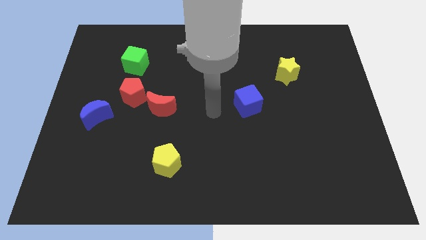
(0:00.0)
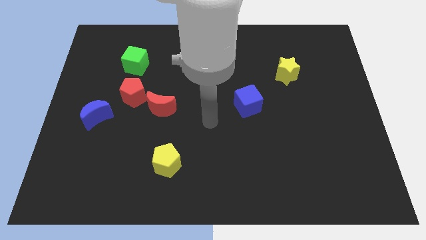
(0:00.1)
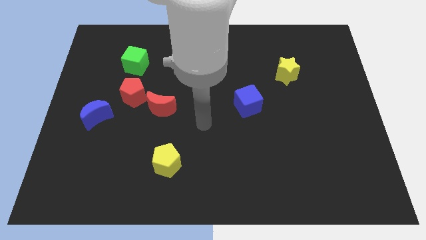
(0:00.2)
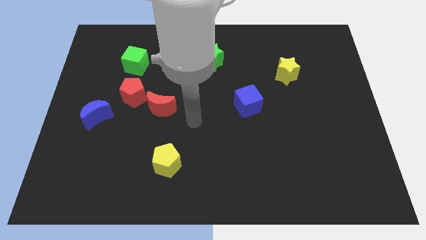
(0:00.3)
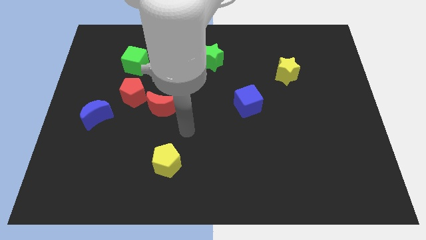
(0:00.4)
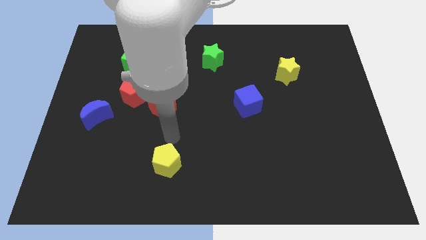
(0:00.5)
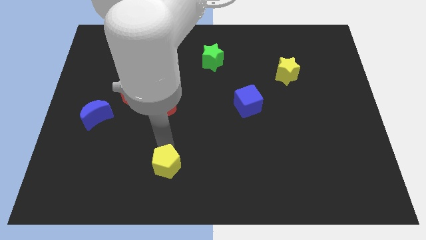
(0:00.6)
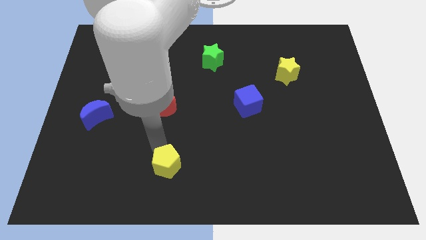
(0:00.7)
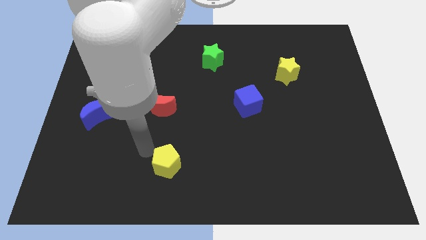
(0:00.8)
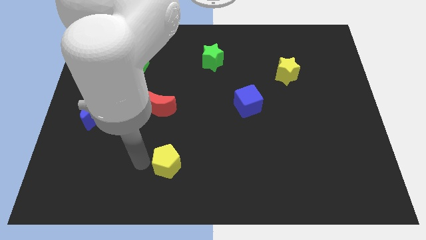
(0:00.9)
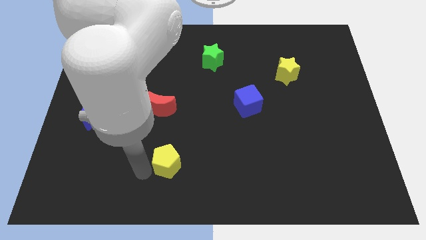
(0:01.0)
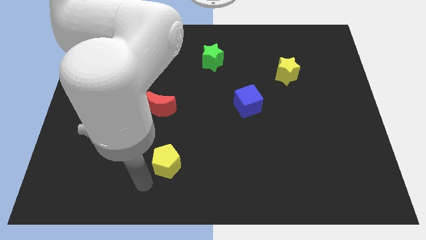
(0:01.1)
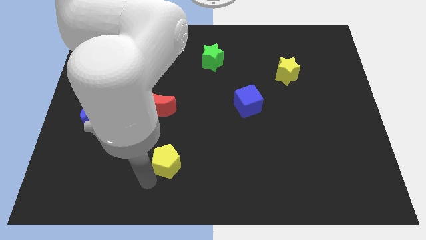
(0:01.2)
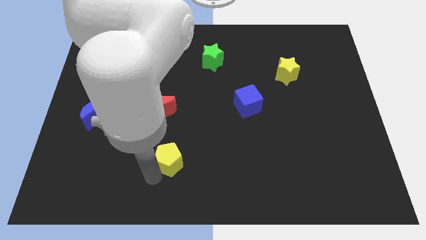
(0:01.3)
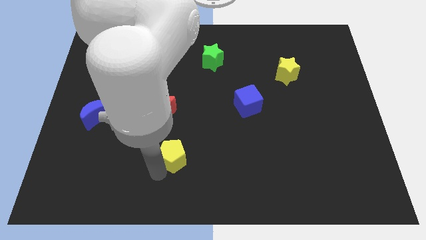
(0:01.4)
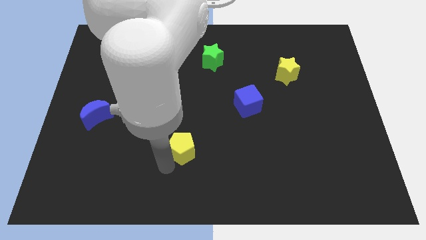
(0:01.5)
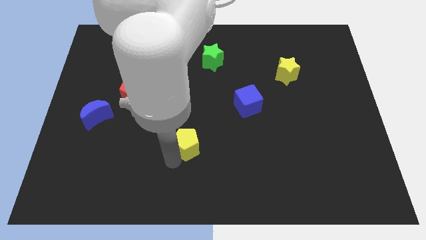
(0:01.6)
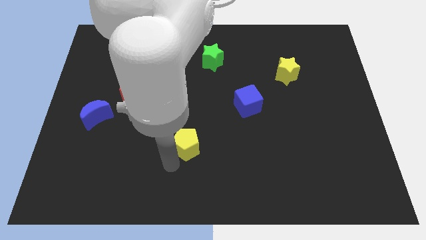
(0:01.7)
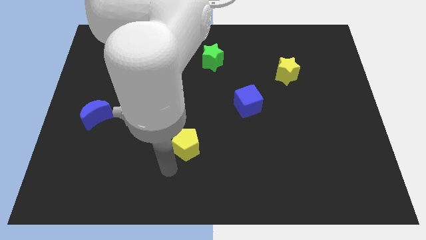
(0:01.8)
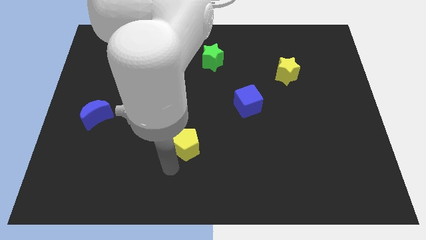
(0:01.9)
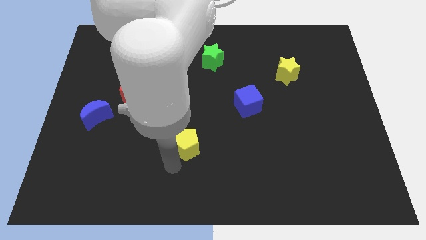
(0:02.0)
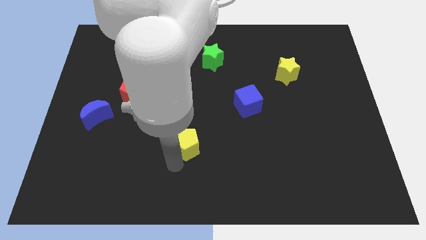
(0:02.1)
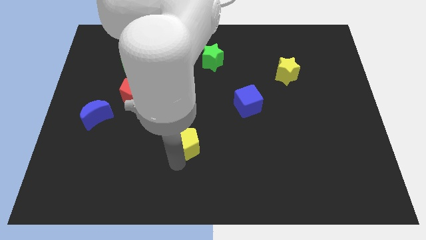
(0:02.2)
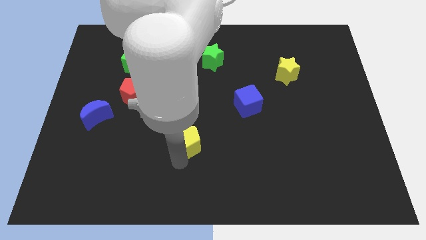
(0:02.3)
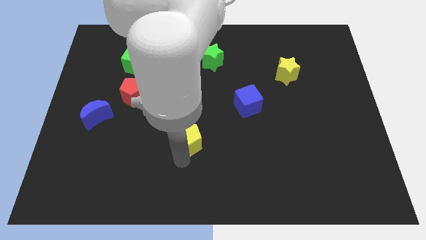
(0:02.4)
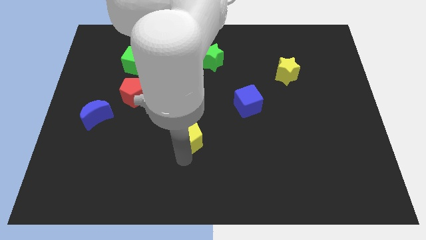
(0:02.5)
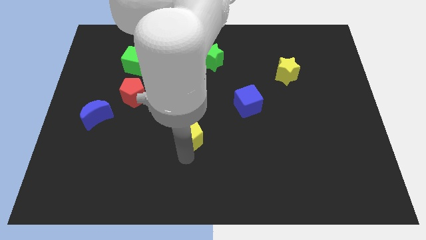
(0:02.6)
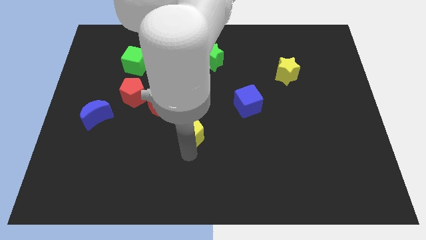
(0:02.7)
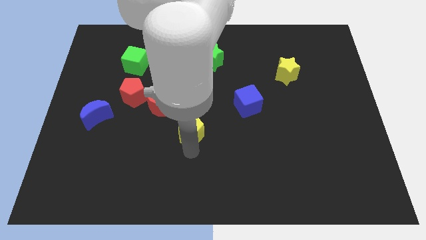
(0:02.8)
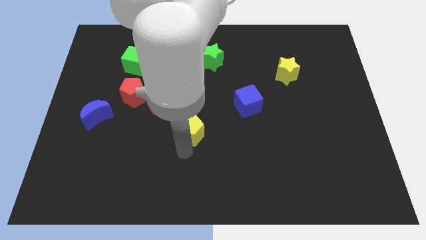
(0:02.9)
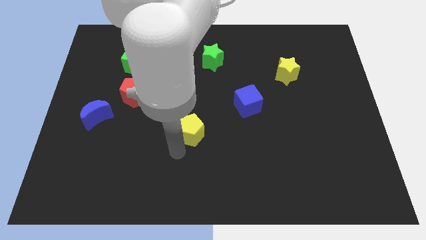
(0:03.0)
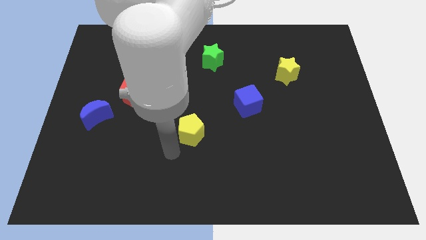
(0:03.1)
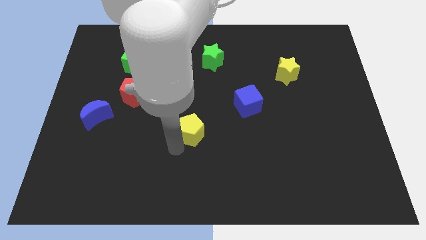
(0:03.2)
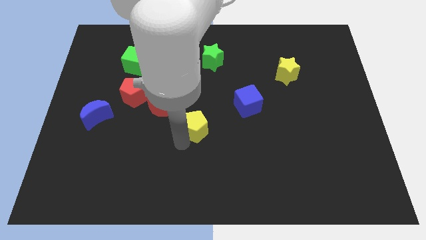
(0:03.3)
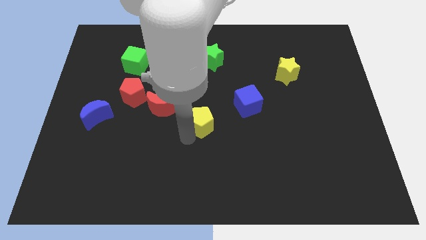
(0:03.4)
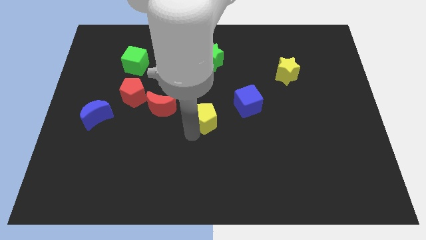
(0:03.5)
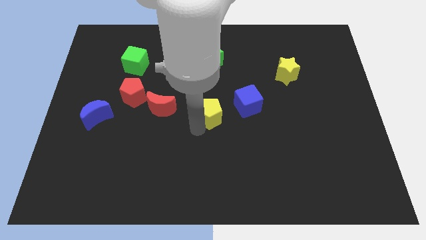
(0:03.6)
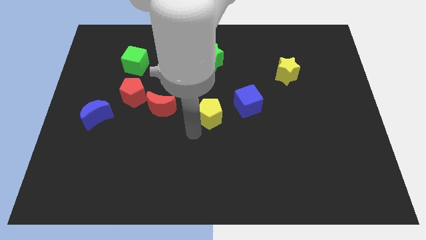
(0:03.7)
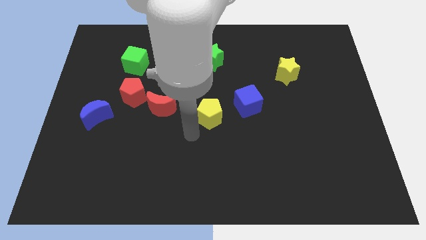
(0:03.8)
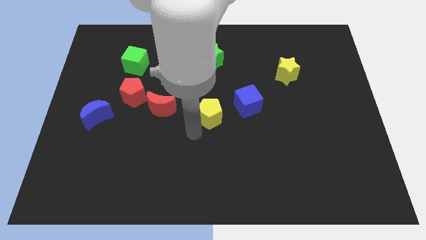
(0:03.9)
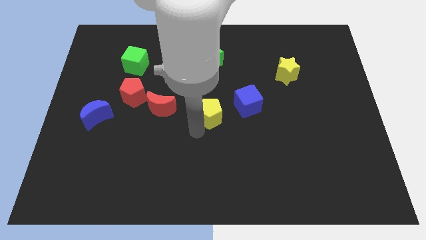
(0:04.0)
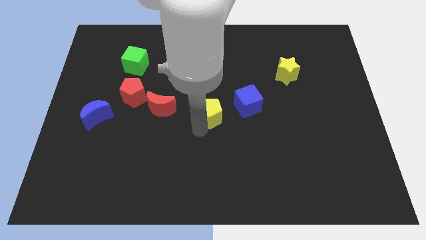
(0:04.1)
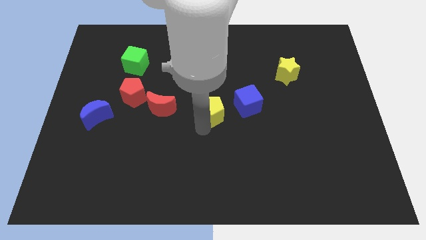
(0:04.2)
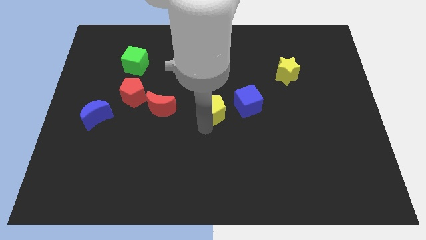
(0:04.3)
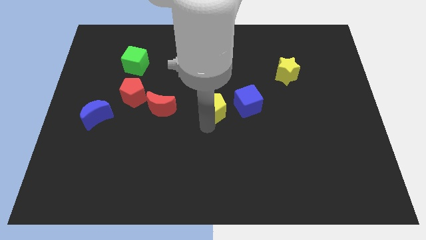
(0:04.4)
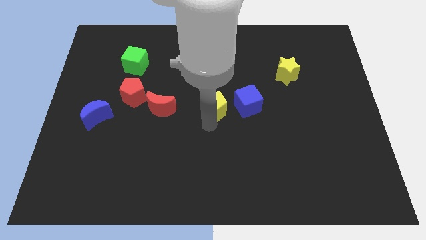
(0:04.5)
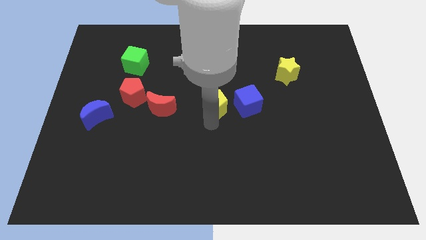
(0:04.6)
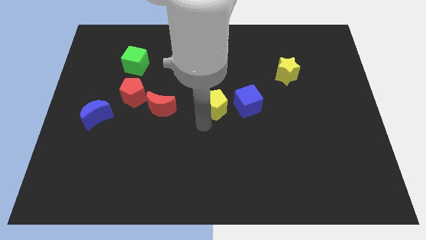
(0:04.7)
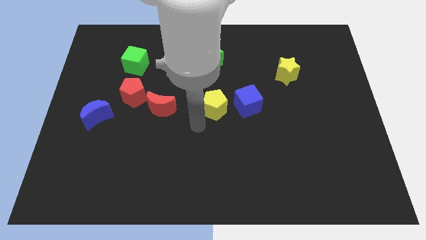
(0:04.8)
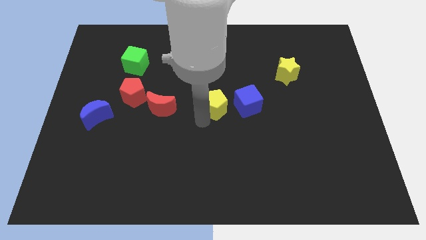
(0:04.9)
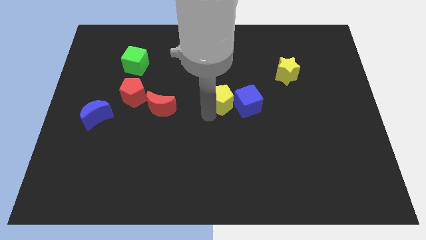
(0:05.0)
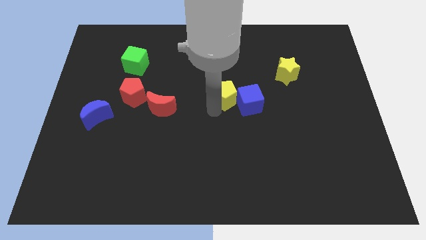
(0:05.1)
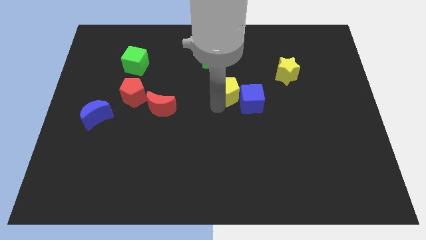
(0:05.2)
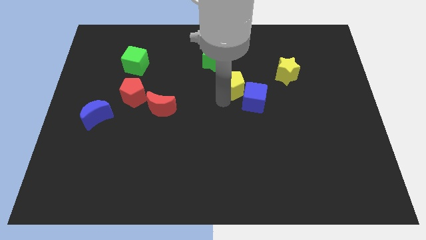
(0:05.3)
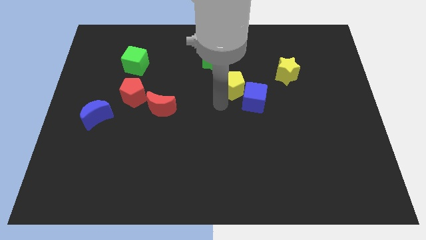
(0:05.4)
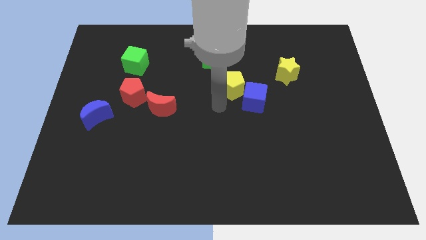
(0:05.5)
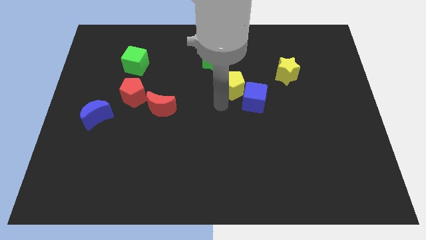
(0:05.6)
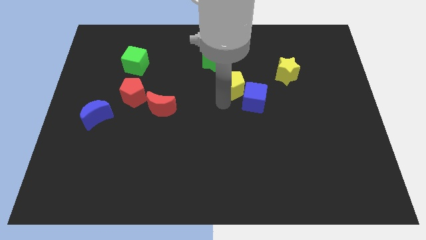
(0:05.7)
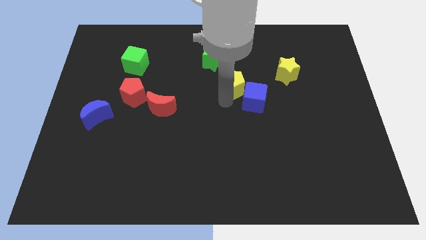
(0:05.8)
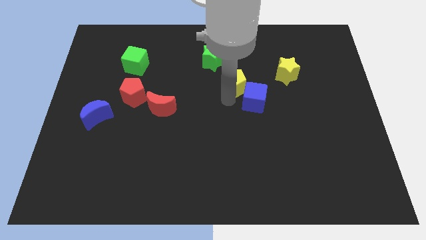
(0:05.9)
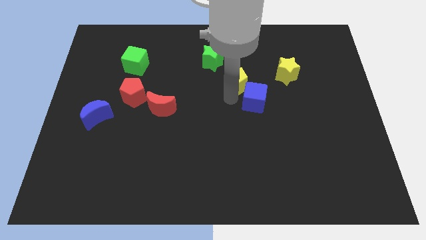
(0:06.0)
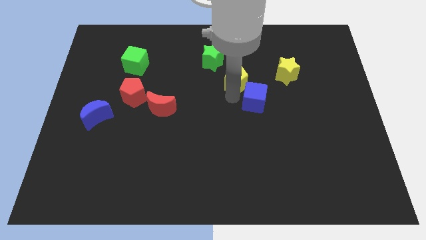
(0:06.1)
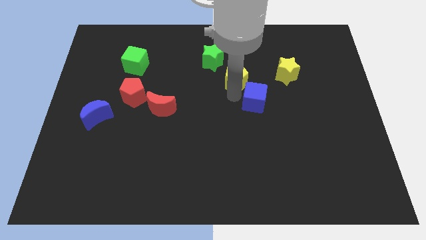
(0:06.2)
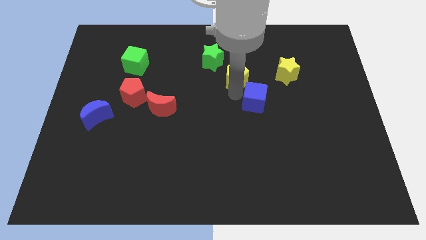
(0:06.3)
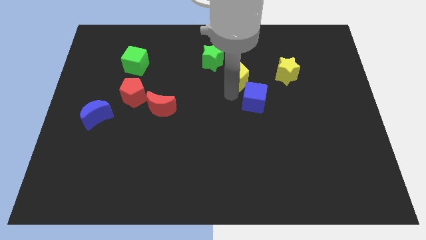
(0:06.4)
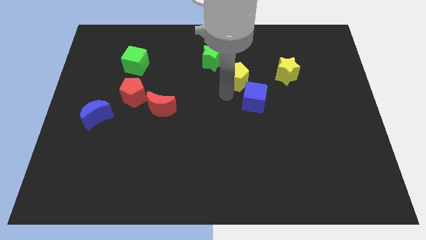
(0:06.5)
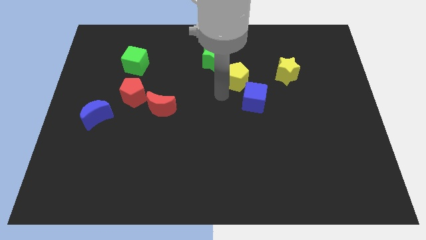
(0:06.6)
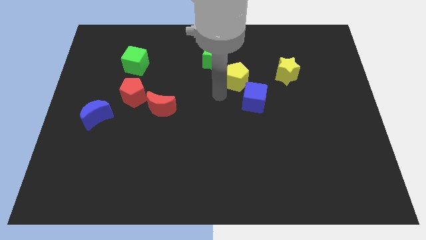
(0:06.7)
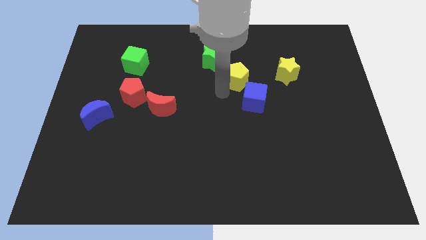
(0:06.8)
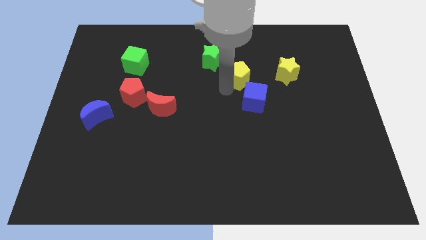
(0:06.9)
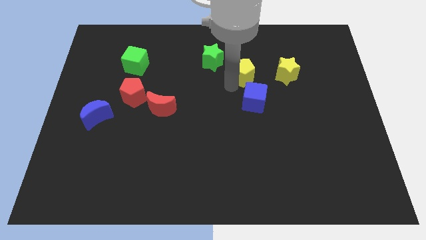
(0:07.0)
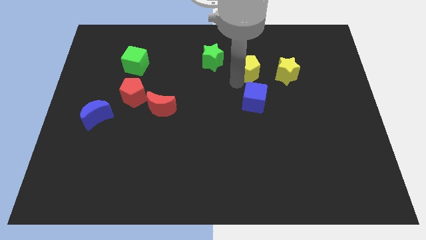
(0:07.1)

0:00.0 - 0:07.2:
push the yellow pentagon to the right side of the green star
